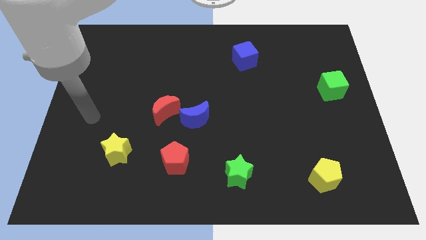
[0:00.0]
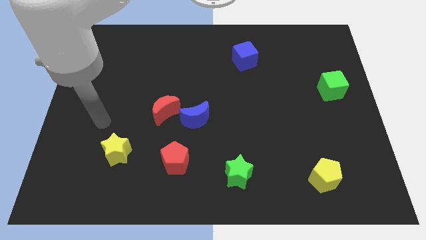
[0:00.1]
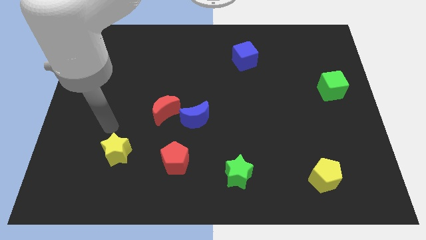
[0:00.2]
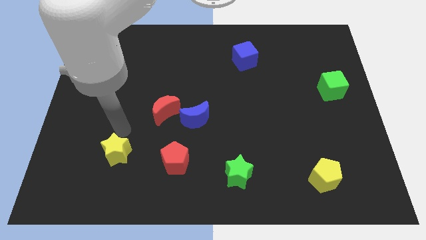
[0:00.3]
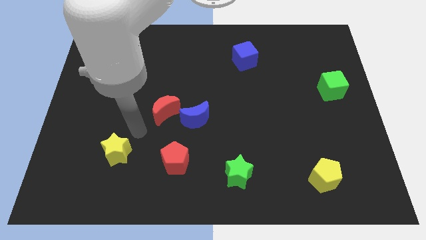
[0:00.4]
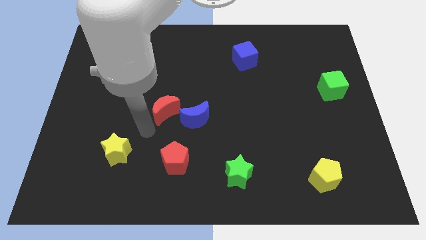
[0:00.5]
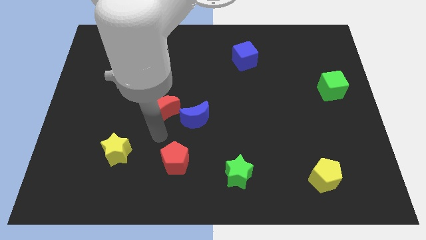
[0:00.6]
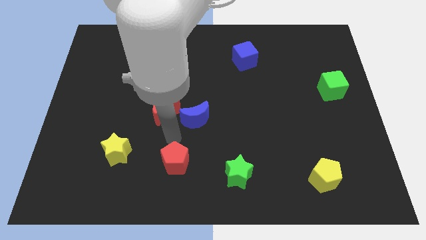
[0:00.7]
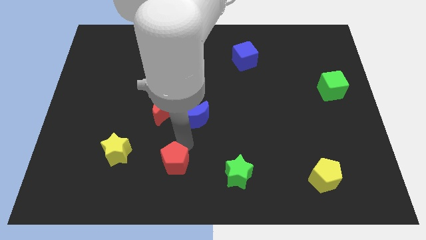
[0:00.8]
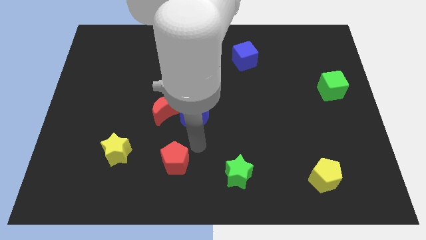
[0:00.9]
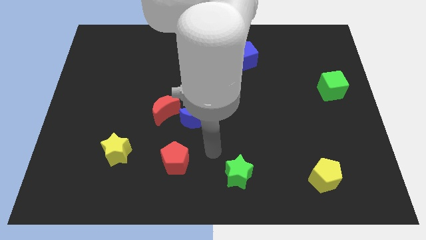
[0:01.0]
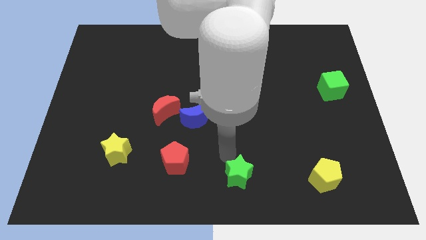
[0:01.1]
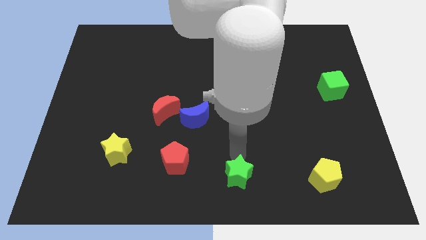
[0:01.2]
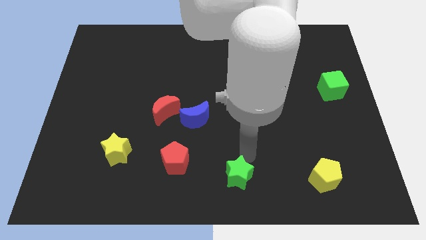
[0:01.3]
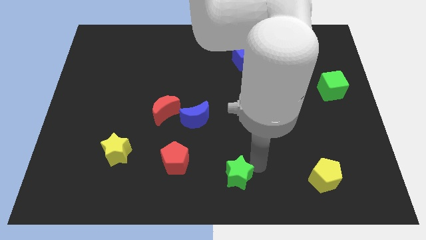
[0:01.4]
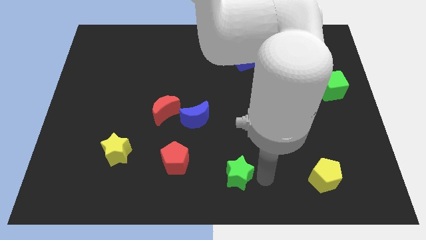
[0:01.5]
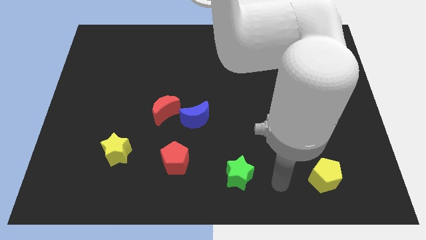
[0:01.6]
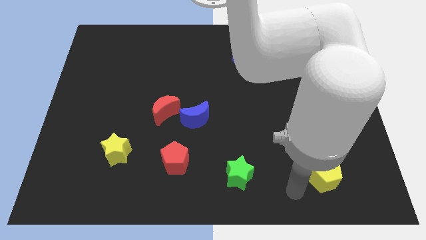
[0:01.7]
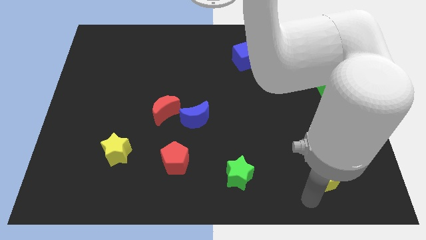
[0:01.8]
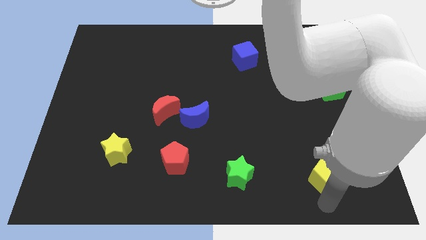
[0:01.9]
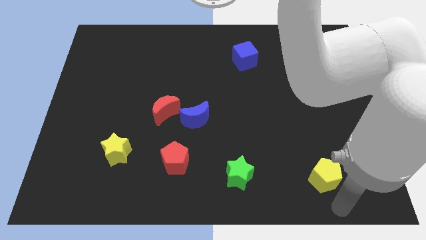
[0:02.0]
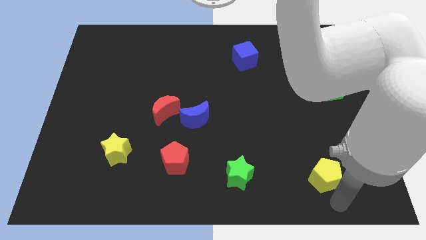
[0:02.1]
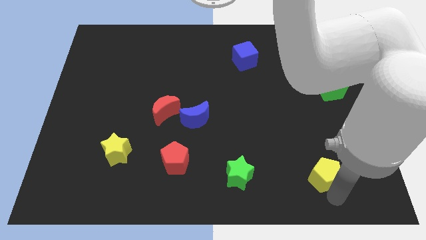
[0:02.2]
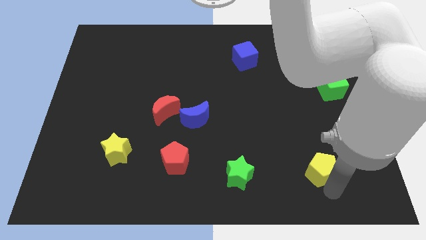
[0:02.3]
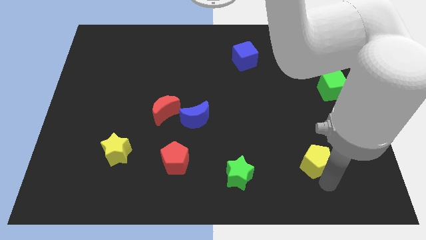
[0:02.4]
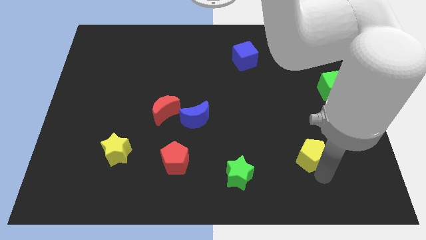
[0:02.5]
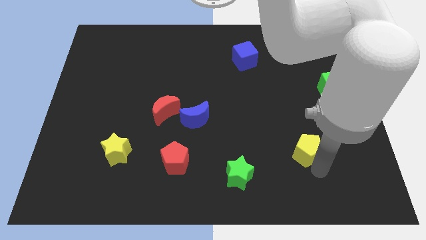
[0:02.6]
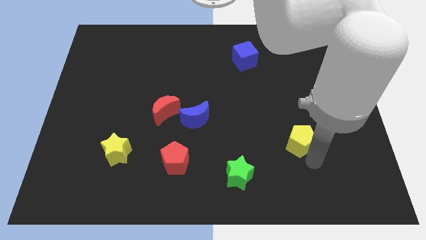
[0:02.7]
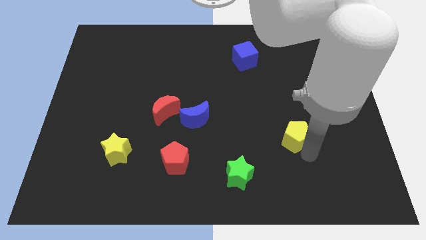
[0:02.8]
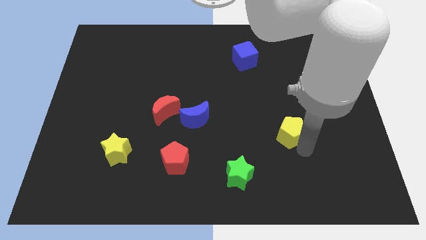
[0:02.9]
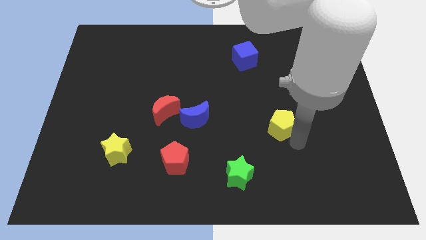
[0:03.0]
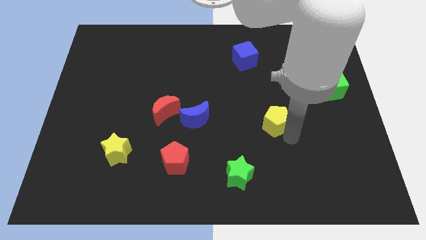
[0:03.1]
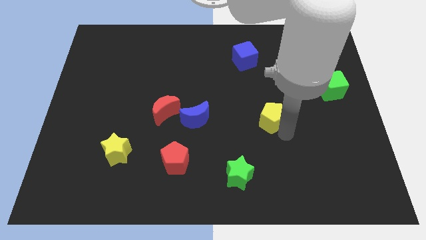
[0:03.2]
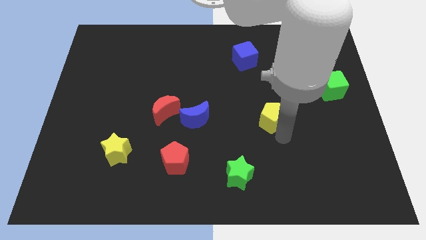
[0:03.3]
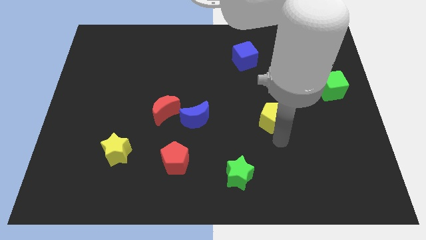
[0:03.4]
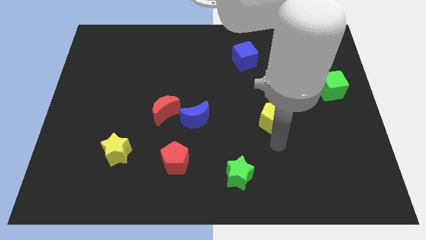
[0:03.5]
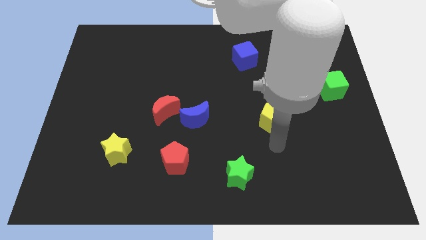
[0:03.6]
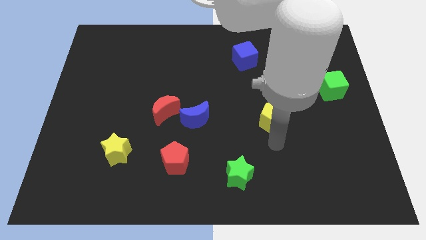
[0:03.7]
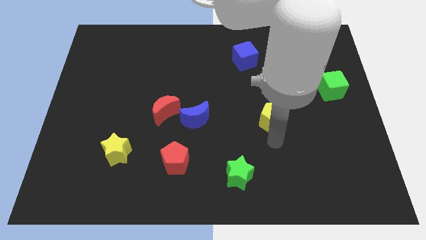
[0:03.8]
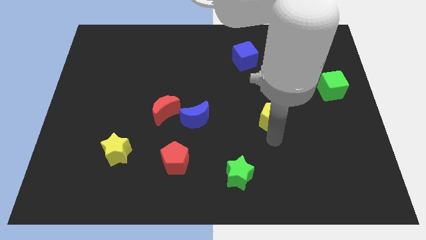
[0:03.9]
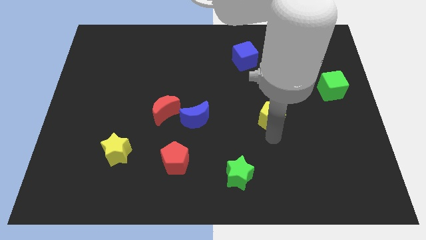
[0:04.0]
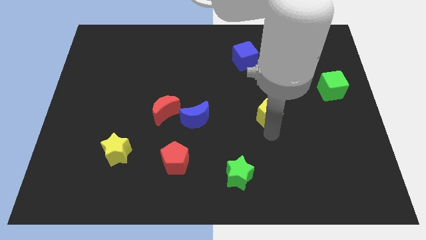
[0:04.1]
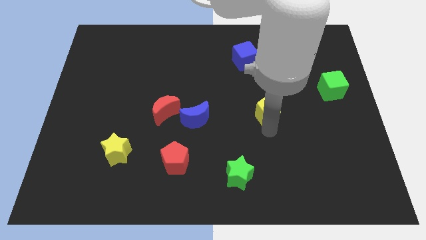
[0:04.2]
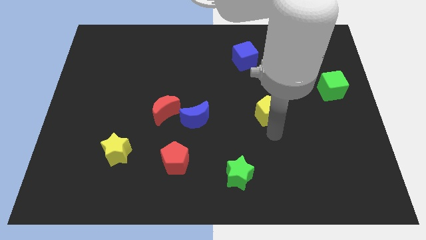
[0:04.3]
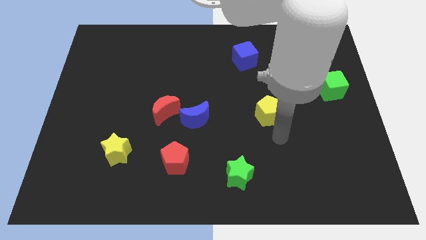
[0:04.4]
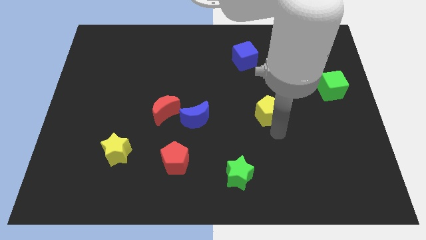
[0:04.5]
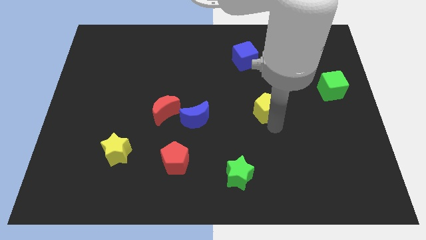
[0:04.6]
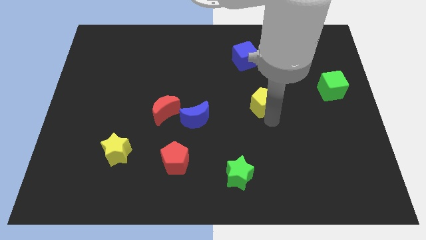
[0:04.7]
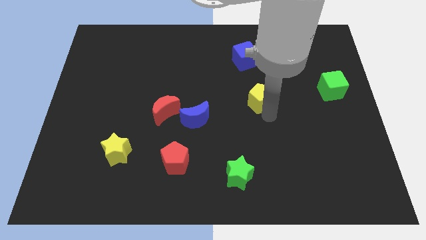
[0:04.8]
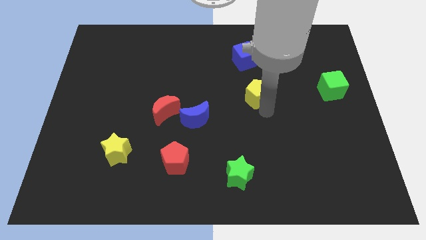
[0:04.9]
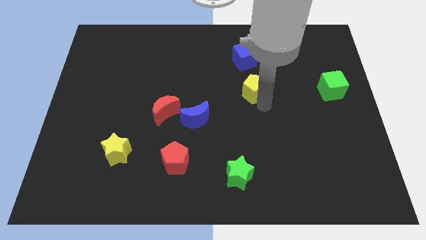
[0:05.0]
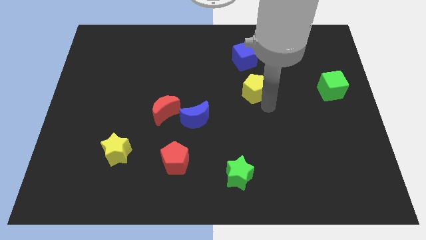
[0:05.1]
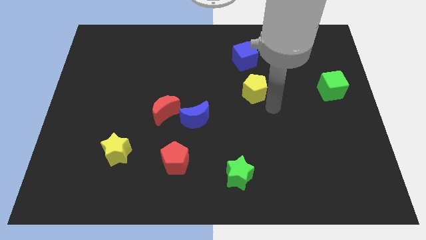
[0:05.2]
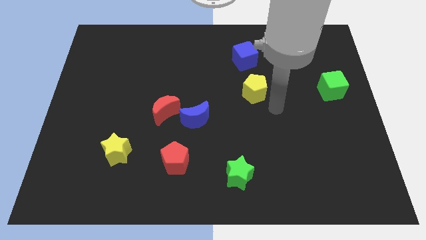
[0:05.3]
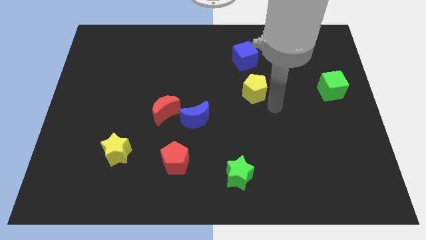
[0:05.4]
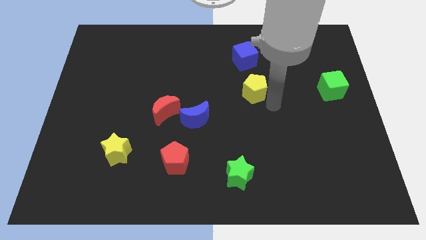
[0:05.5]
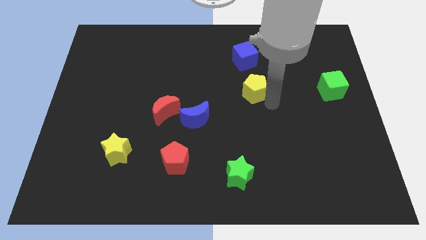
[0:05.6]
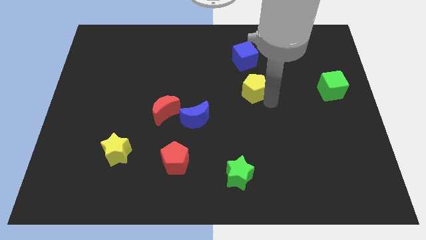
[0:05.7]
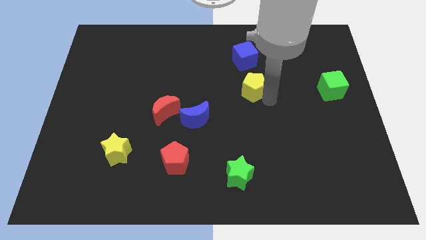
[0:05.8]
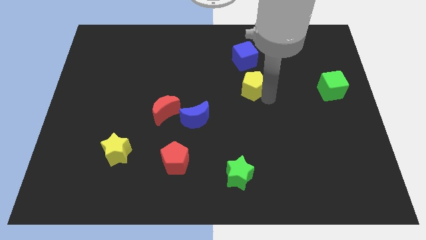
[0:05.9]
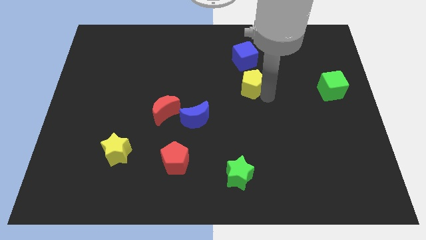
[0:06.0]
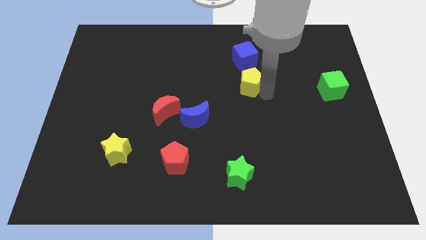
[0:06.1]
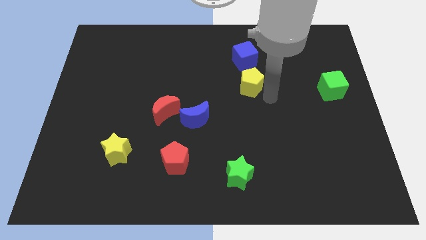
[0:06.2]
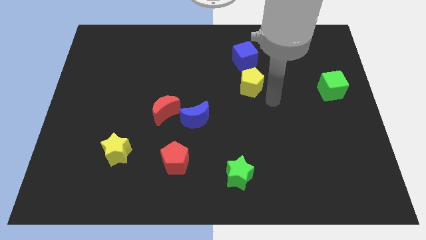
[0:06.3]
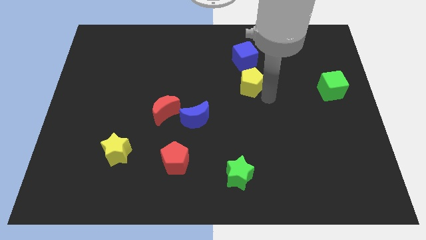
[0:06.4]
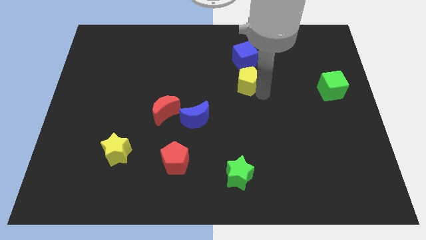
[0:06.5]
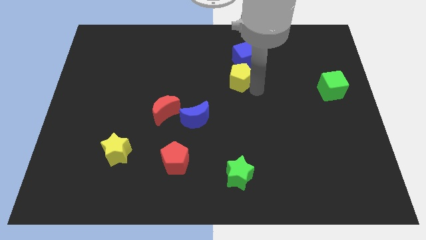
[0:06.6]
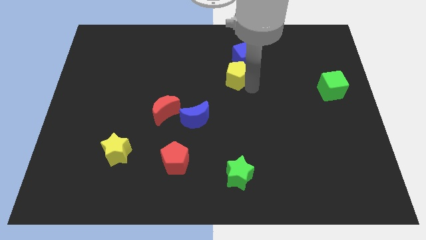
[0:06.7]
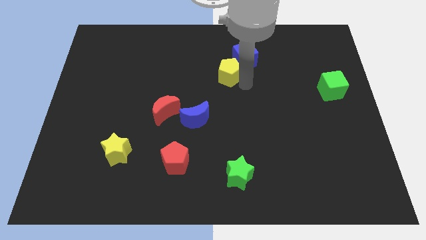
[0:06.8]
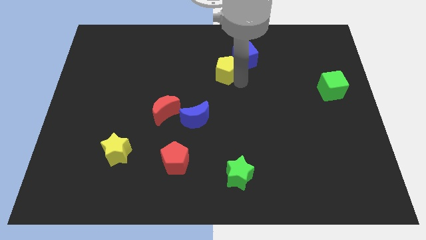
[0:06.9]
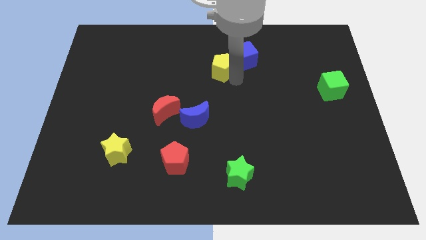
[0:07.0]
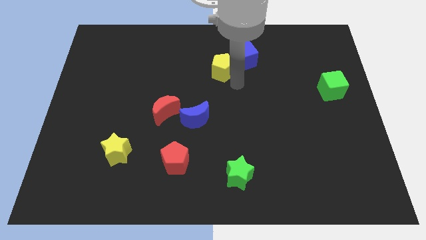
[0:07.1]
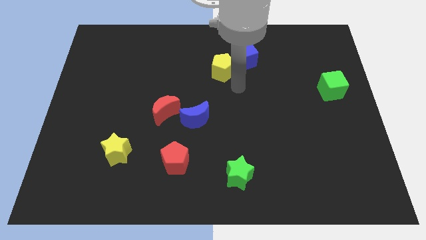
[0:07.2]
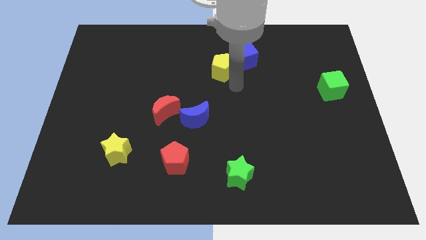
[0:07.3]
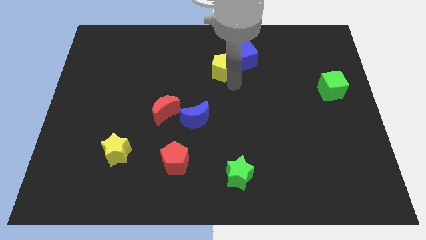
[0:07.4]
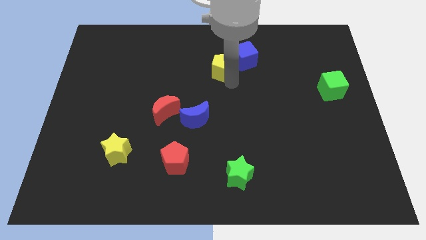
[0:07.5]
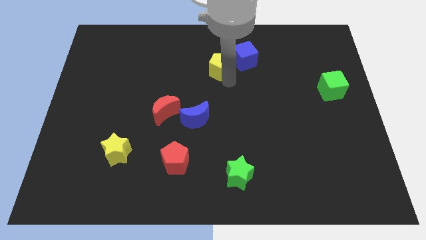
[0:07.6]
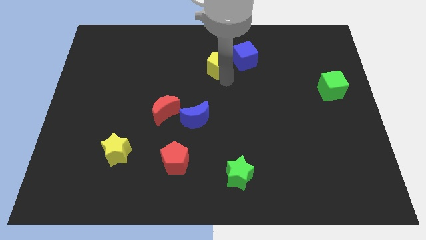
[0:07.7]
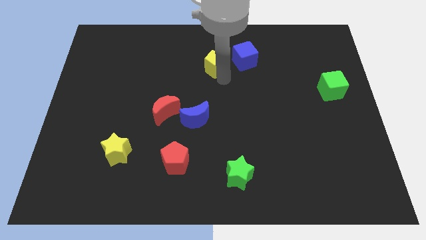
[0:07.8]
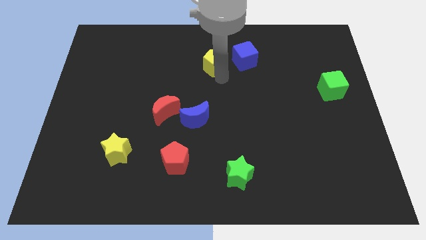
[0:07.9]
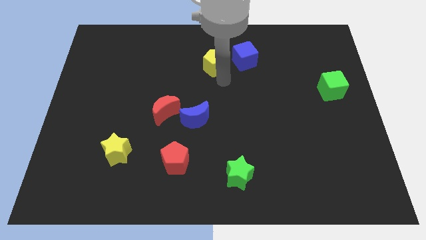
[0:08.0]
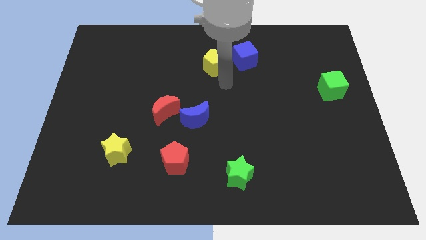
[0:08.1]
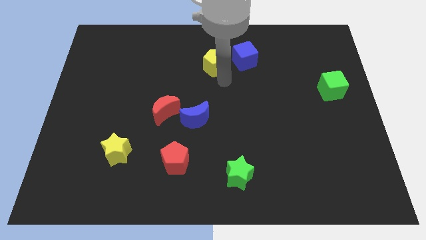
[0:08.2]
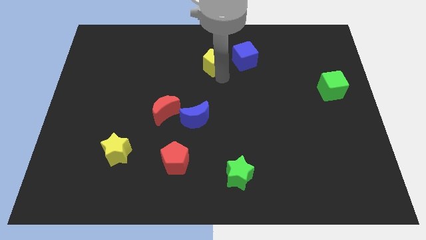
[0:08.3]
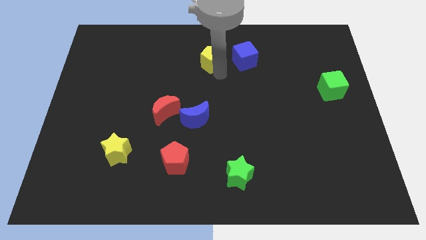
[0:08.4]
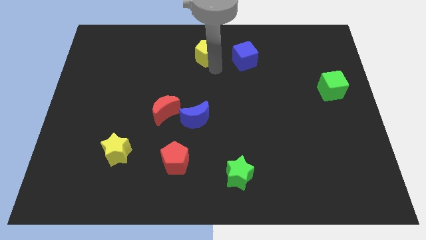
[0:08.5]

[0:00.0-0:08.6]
move the yellow pentagon to the top side
